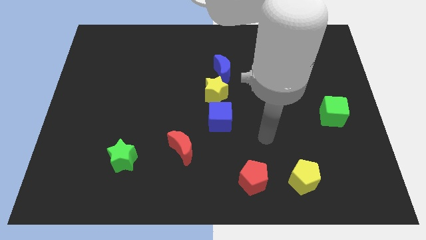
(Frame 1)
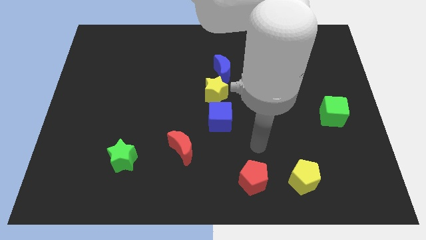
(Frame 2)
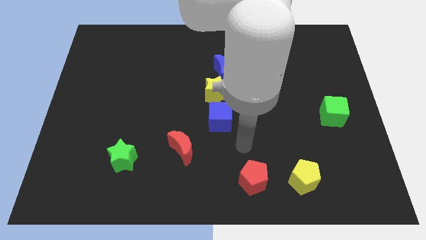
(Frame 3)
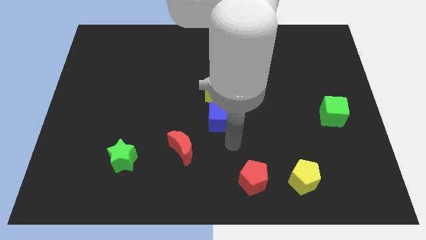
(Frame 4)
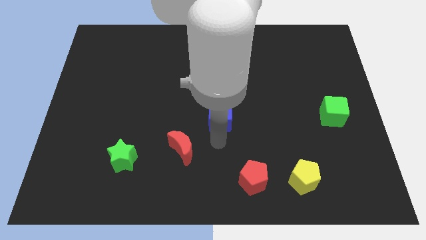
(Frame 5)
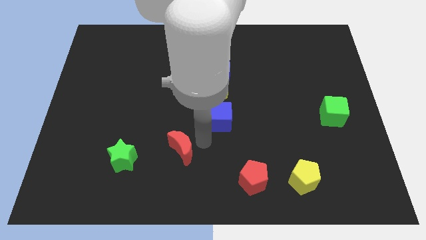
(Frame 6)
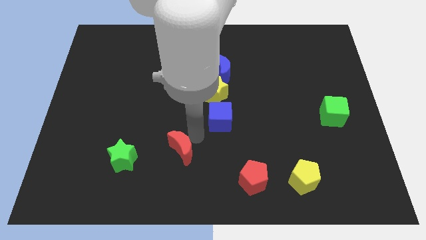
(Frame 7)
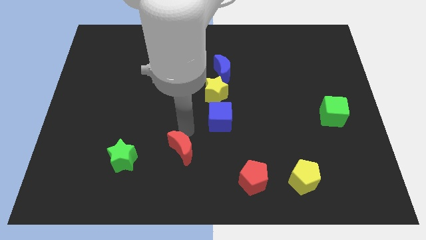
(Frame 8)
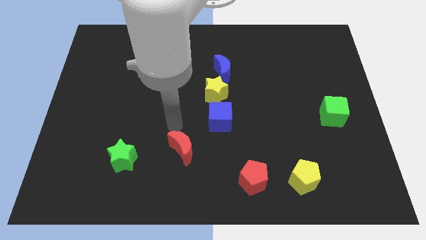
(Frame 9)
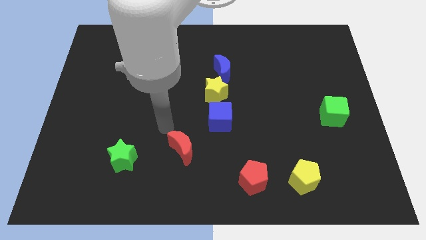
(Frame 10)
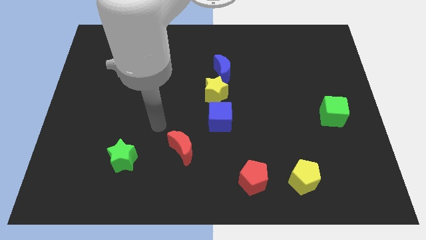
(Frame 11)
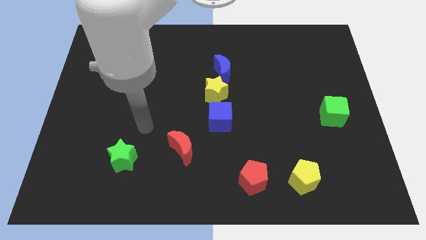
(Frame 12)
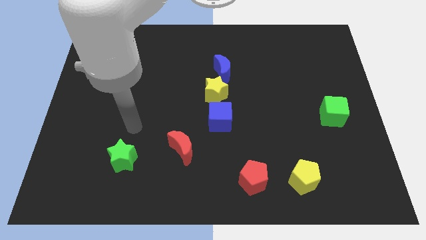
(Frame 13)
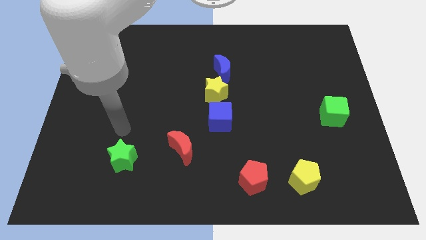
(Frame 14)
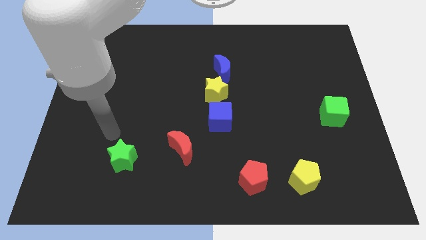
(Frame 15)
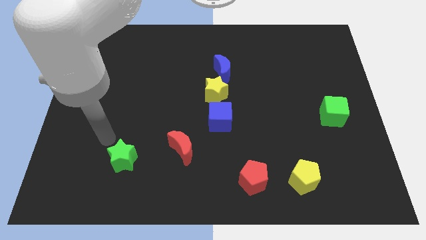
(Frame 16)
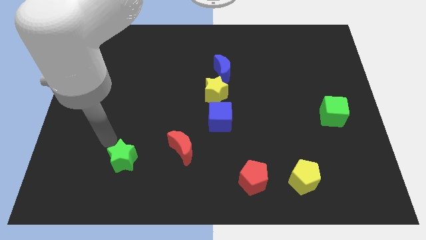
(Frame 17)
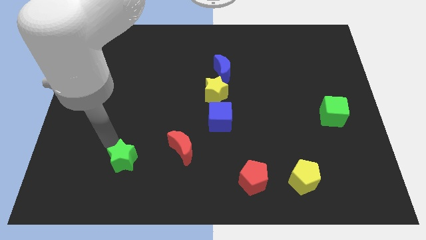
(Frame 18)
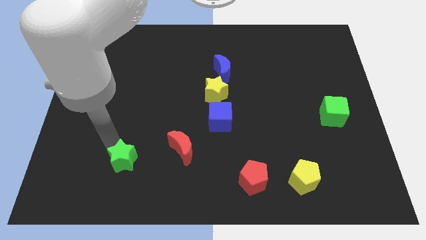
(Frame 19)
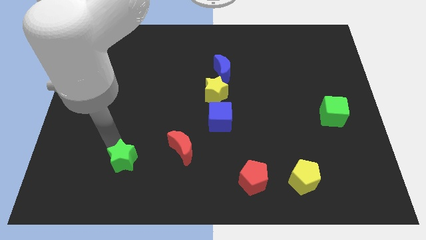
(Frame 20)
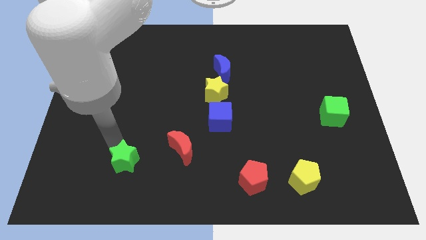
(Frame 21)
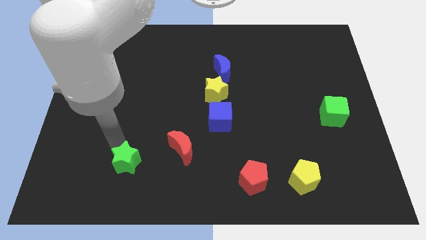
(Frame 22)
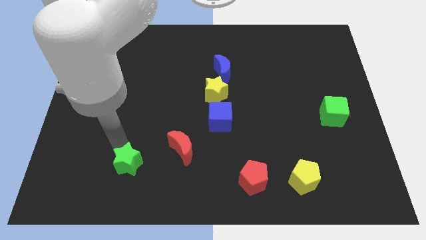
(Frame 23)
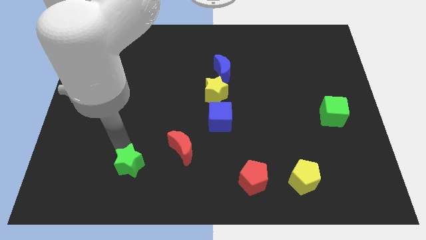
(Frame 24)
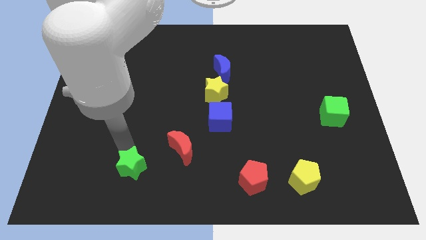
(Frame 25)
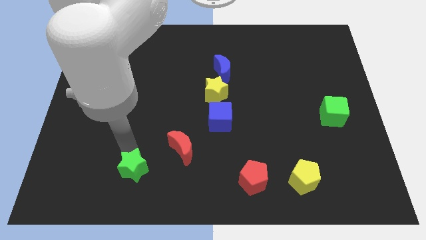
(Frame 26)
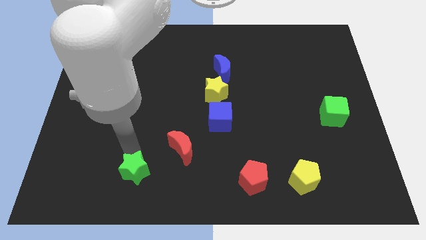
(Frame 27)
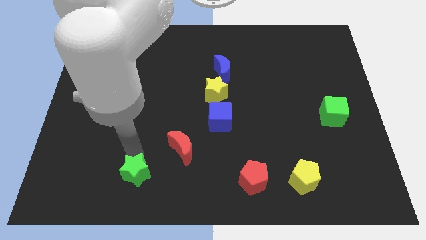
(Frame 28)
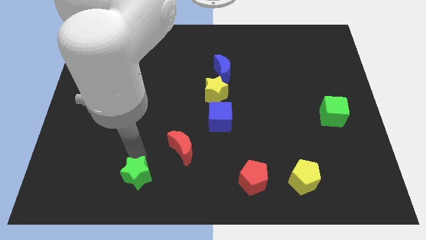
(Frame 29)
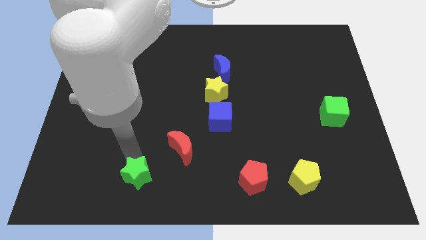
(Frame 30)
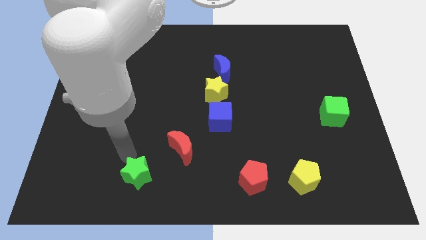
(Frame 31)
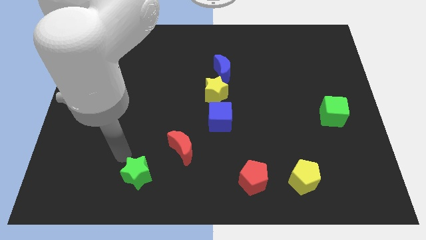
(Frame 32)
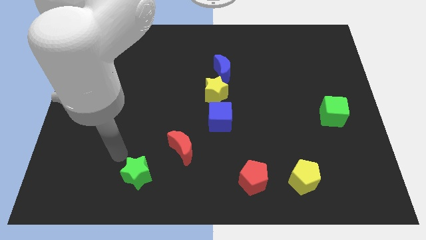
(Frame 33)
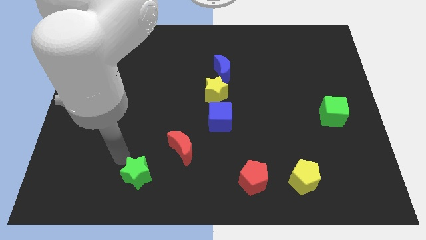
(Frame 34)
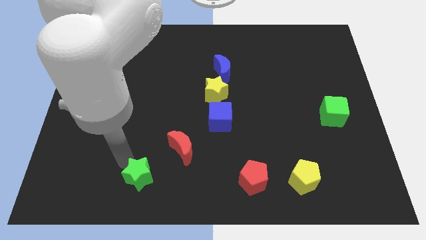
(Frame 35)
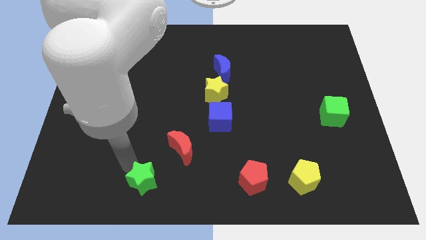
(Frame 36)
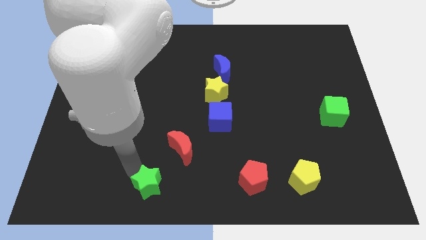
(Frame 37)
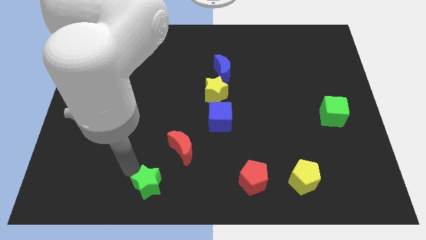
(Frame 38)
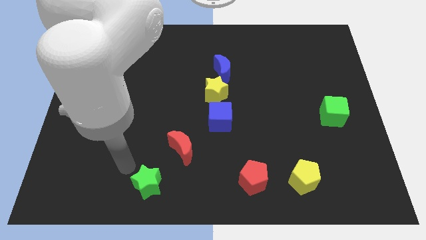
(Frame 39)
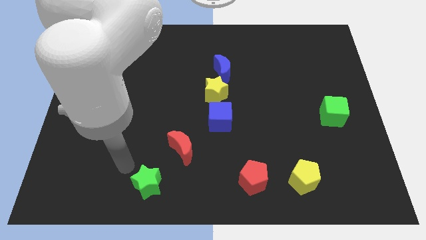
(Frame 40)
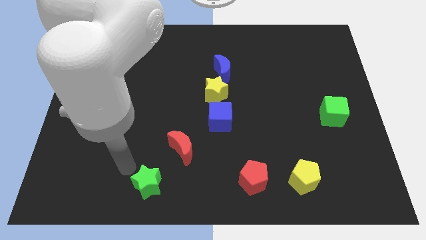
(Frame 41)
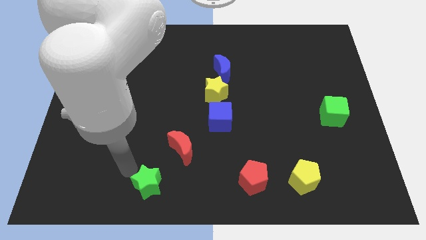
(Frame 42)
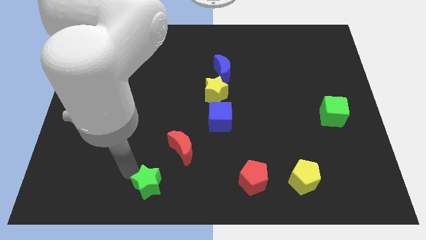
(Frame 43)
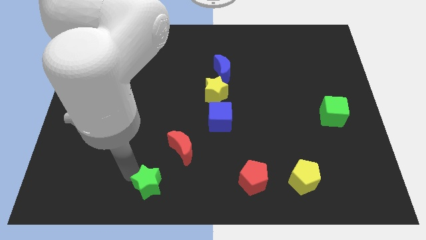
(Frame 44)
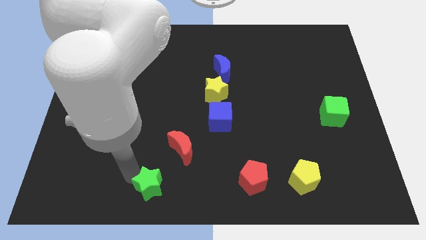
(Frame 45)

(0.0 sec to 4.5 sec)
slide the green star to the bottom

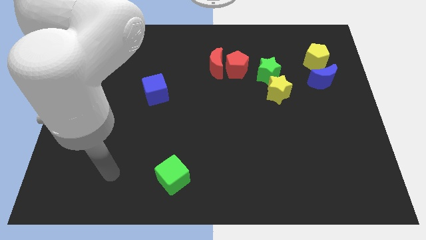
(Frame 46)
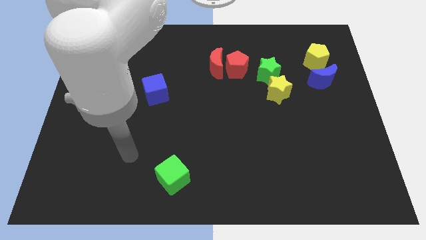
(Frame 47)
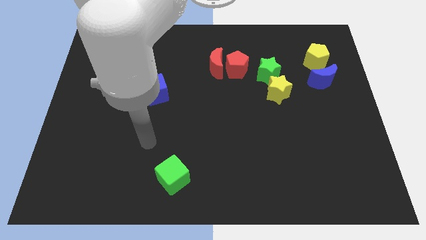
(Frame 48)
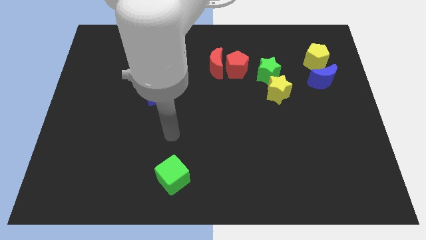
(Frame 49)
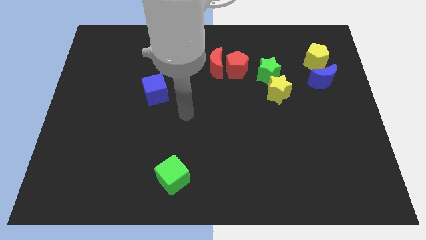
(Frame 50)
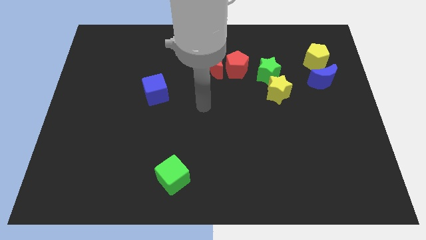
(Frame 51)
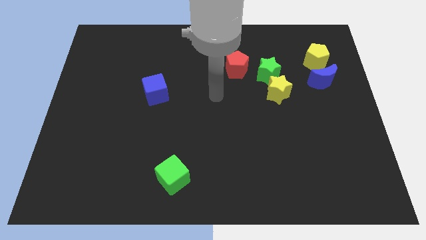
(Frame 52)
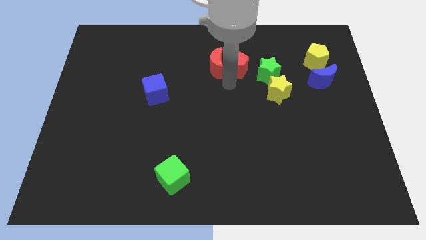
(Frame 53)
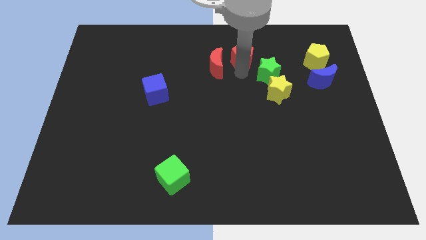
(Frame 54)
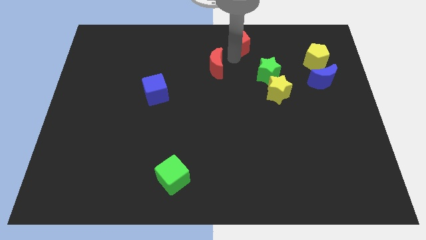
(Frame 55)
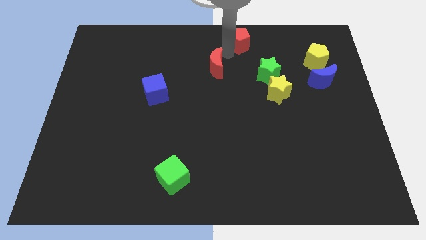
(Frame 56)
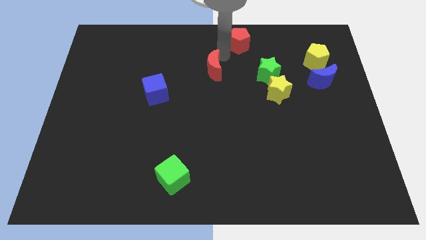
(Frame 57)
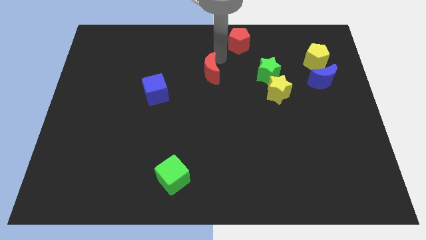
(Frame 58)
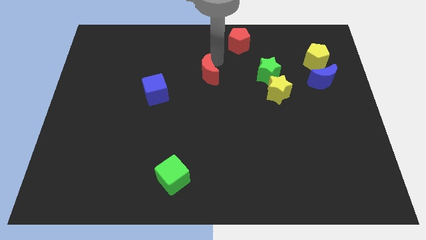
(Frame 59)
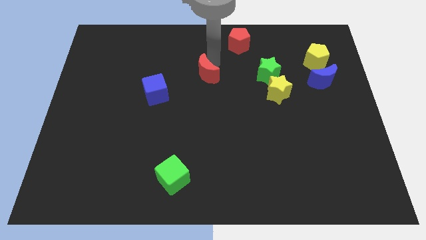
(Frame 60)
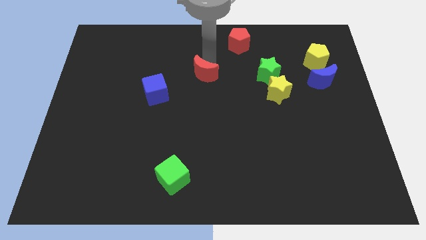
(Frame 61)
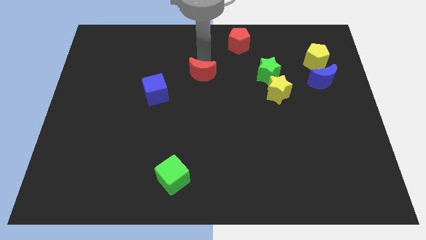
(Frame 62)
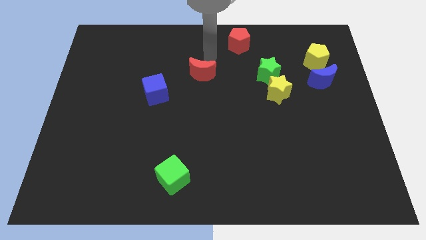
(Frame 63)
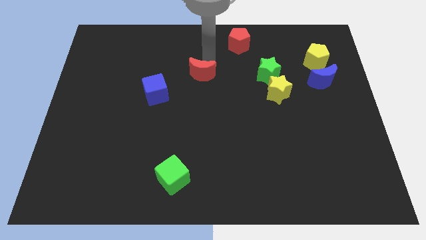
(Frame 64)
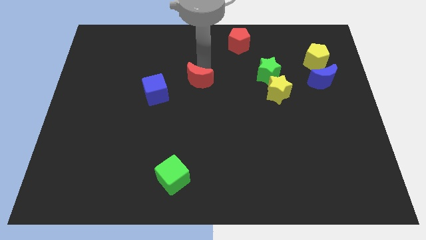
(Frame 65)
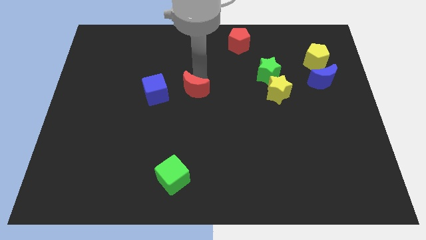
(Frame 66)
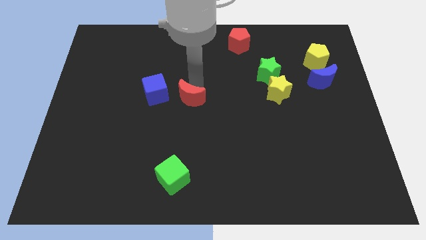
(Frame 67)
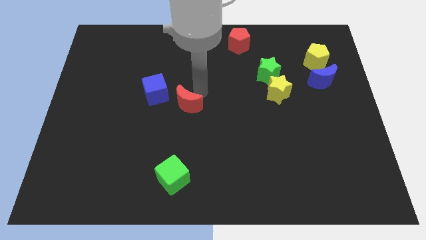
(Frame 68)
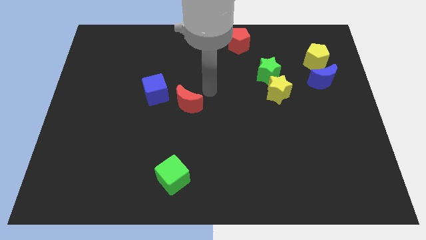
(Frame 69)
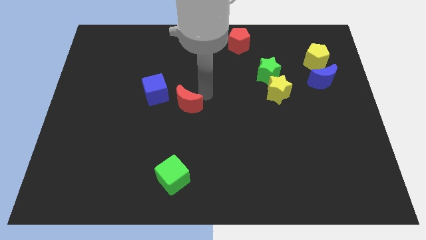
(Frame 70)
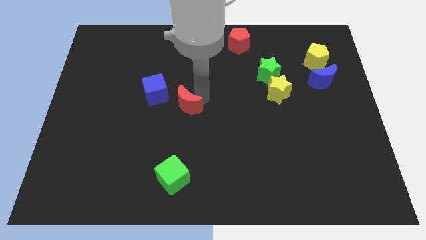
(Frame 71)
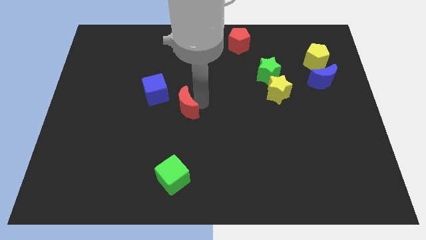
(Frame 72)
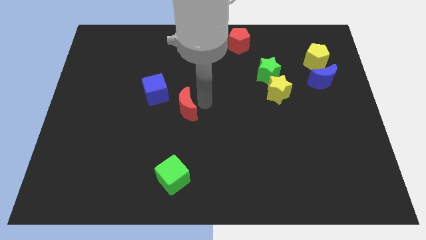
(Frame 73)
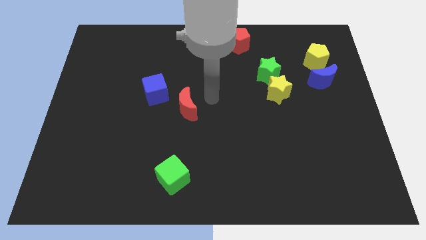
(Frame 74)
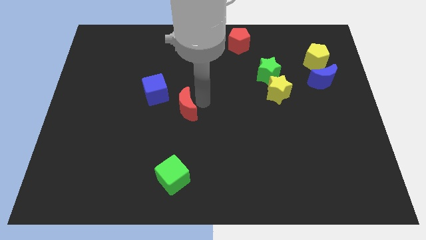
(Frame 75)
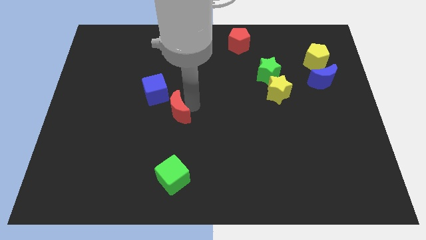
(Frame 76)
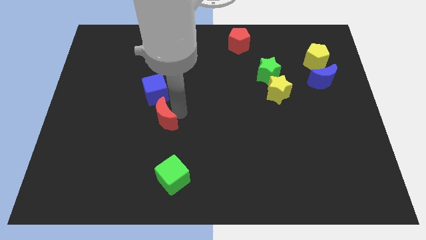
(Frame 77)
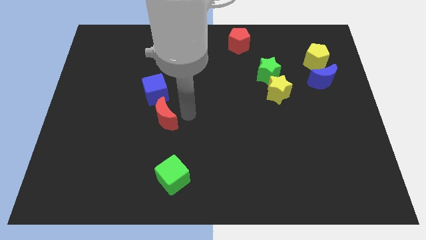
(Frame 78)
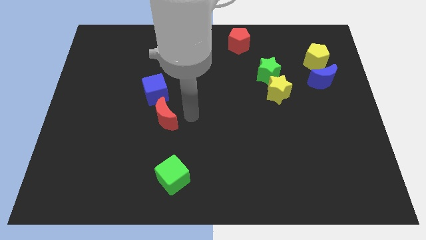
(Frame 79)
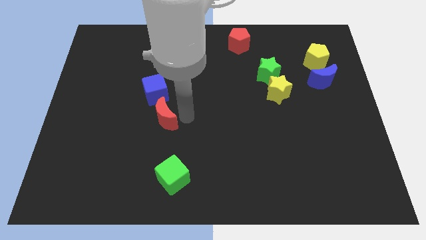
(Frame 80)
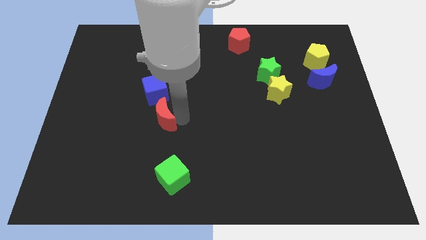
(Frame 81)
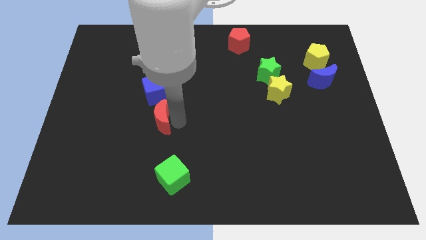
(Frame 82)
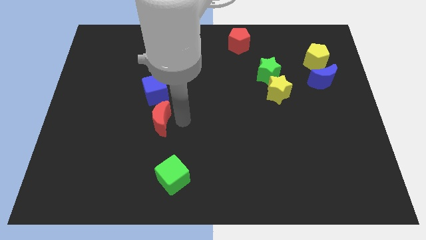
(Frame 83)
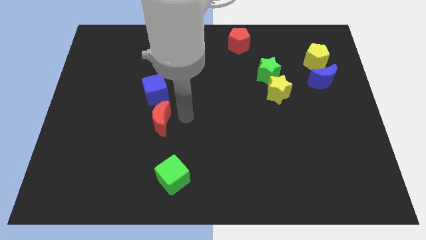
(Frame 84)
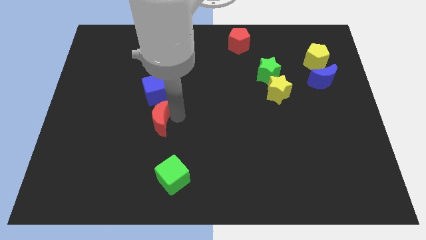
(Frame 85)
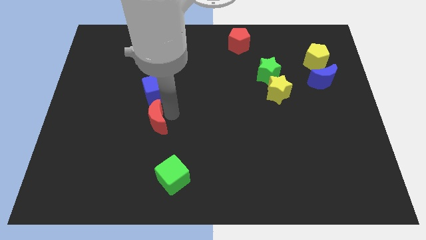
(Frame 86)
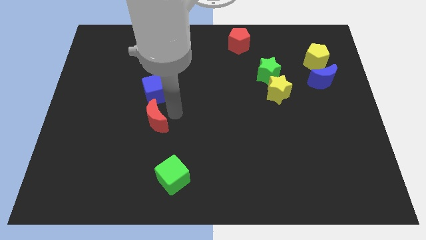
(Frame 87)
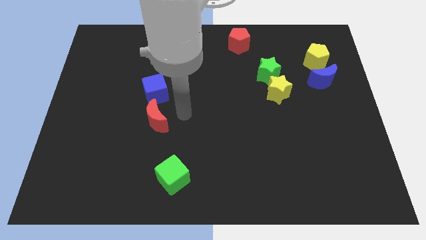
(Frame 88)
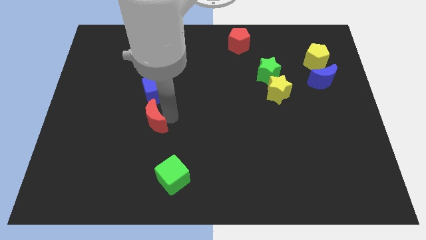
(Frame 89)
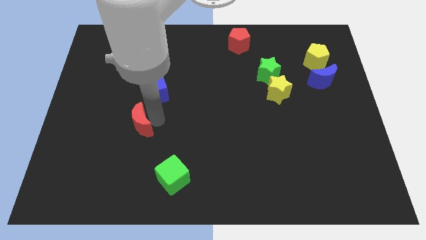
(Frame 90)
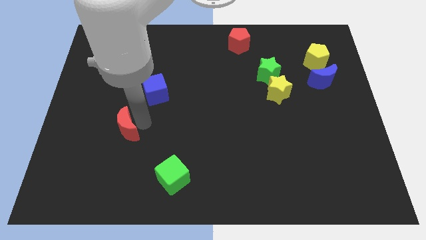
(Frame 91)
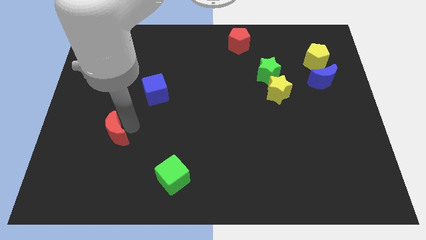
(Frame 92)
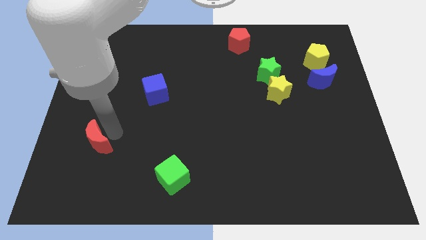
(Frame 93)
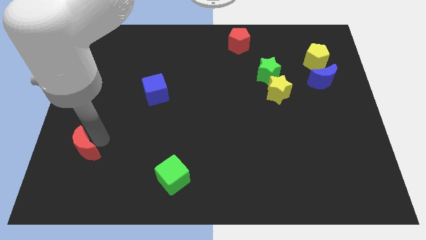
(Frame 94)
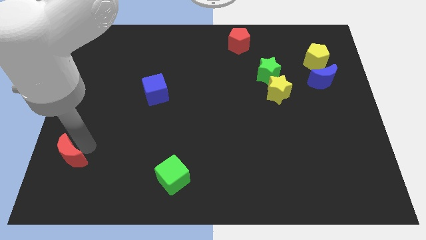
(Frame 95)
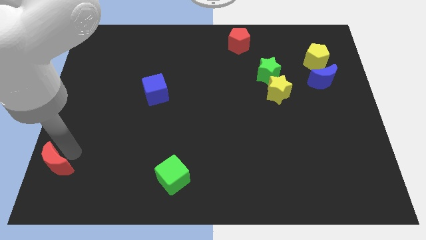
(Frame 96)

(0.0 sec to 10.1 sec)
push the red moon to the lower left corner
